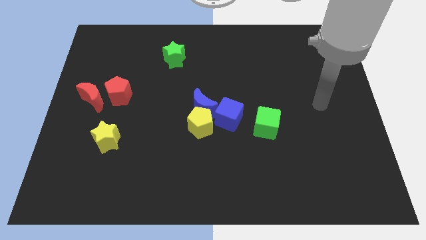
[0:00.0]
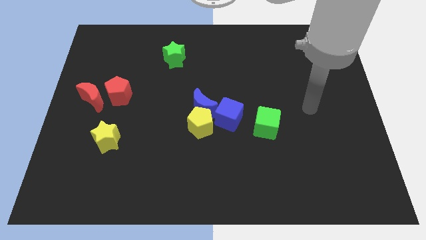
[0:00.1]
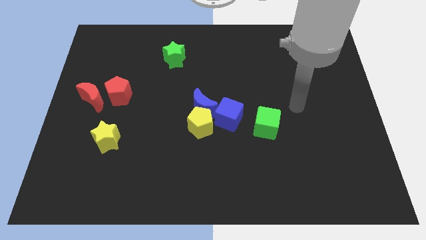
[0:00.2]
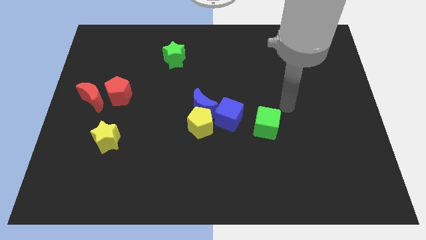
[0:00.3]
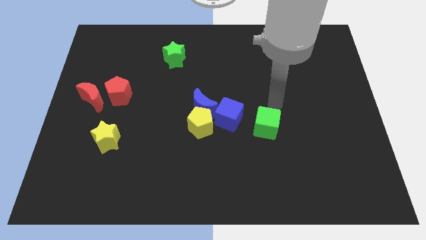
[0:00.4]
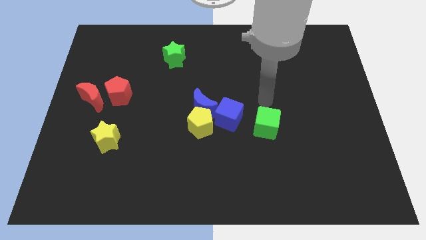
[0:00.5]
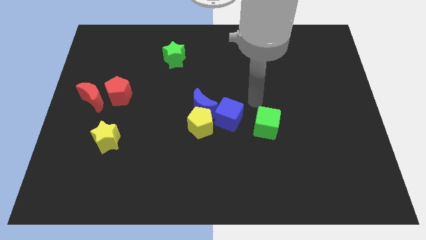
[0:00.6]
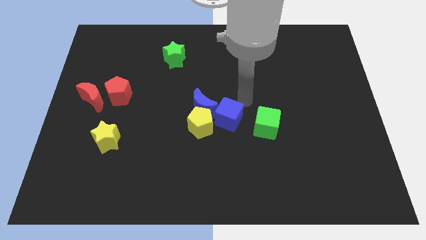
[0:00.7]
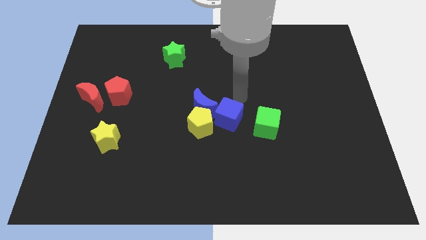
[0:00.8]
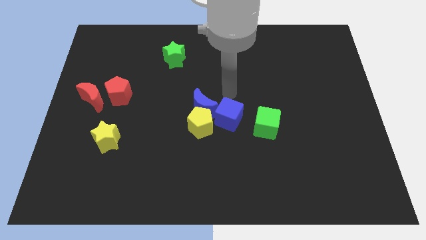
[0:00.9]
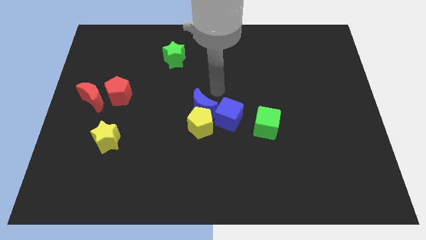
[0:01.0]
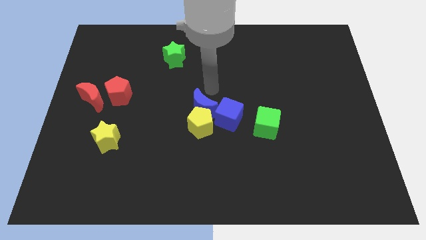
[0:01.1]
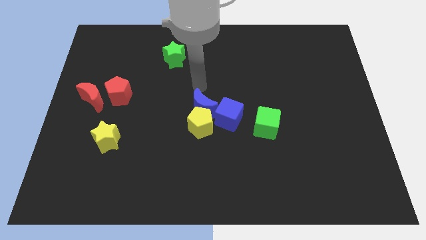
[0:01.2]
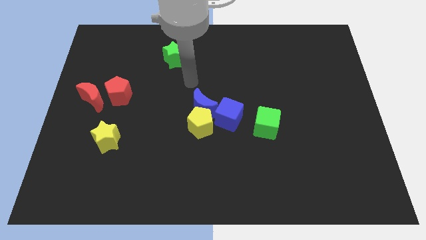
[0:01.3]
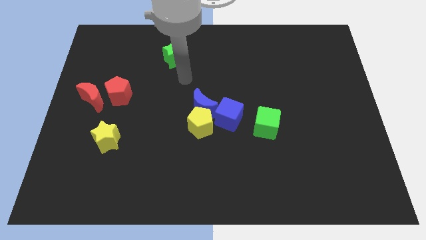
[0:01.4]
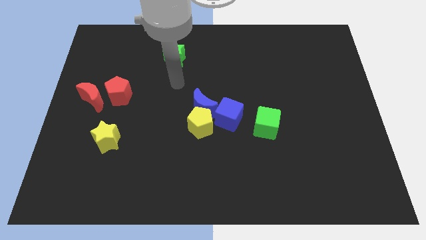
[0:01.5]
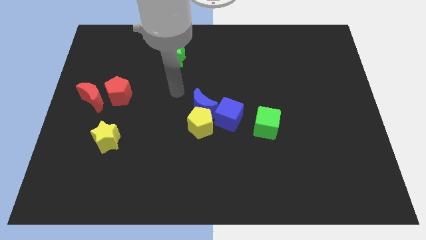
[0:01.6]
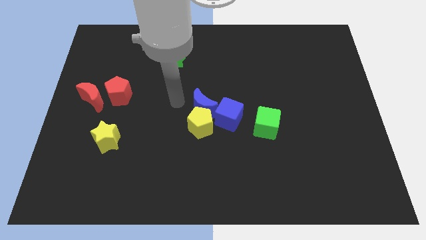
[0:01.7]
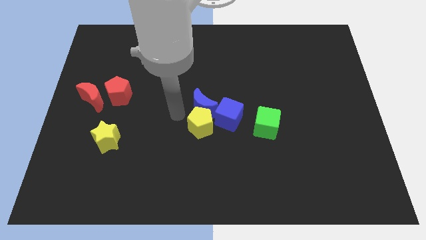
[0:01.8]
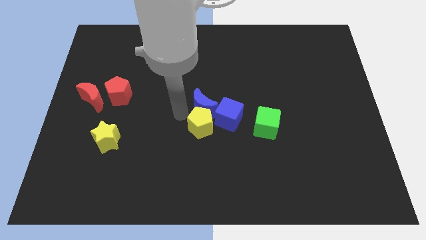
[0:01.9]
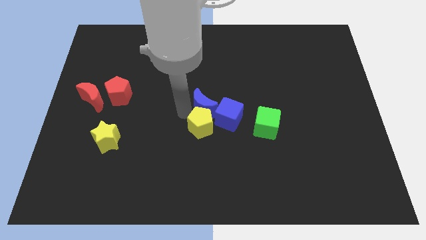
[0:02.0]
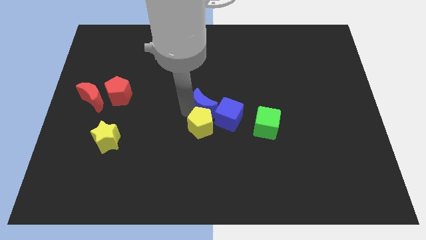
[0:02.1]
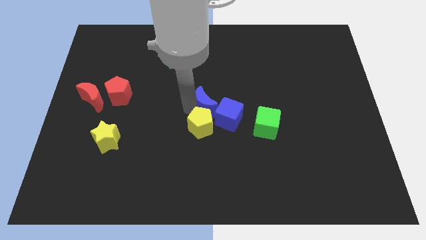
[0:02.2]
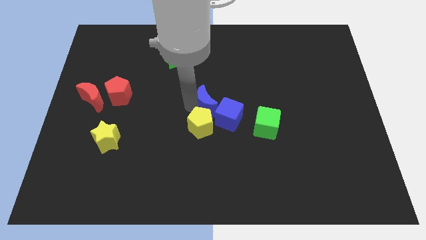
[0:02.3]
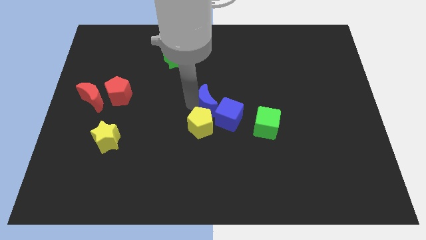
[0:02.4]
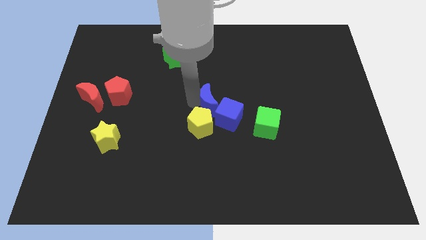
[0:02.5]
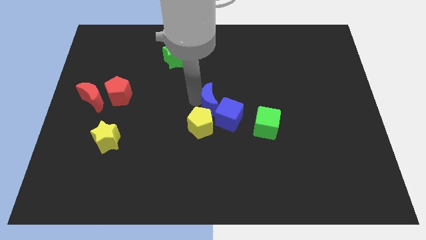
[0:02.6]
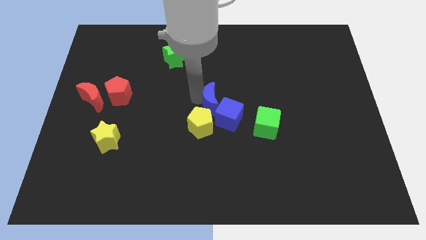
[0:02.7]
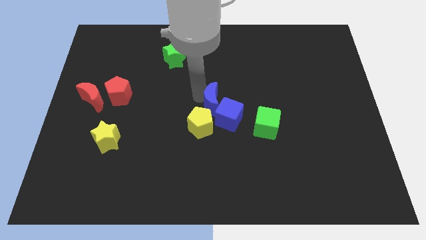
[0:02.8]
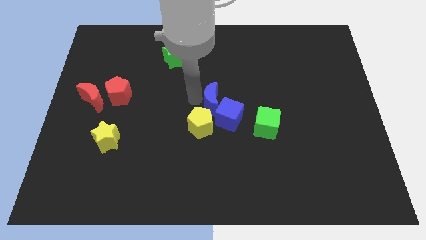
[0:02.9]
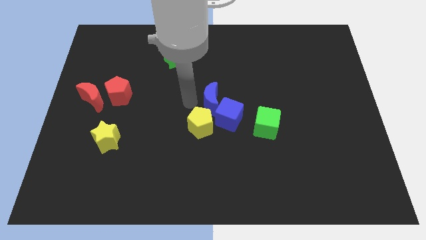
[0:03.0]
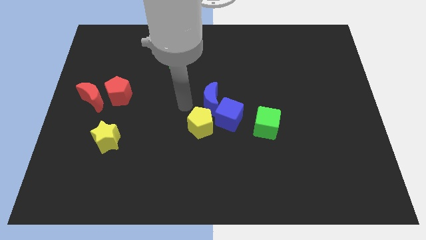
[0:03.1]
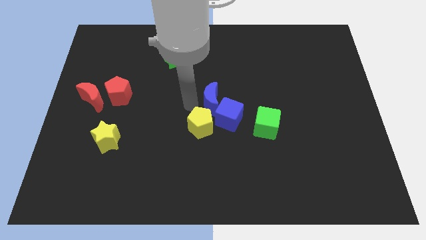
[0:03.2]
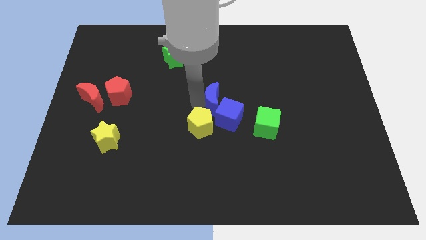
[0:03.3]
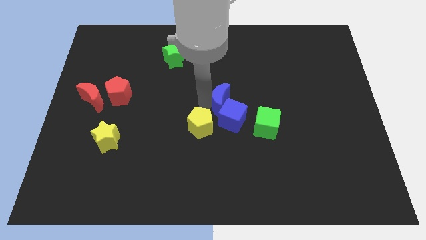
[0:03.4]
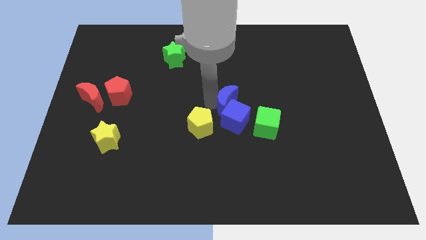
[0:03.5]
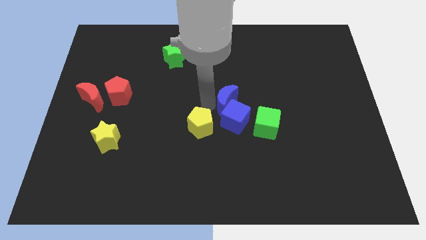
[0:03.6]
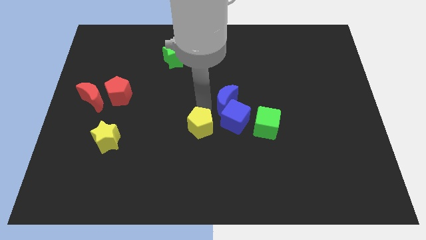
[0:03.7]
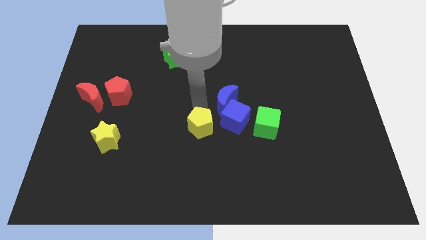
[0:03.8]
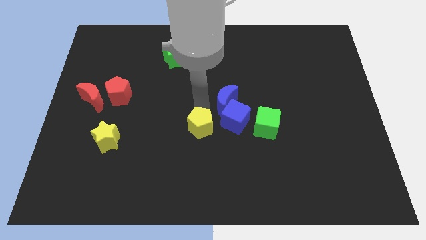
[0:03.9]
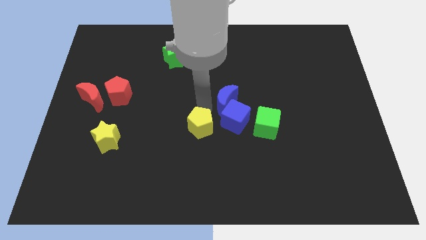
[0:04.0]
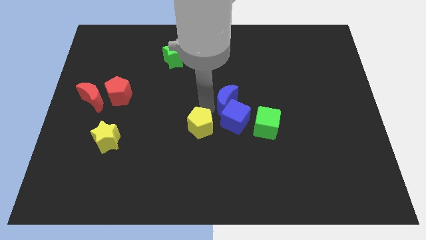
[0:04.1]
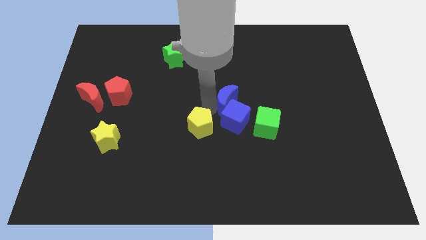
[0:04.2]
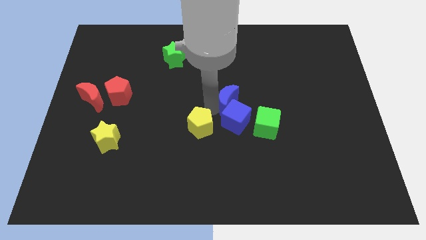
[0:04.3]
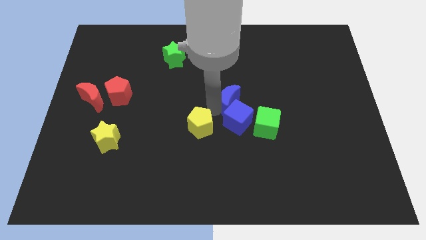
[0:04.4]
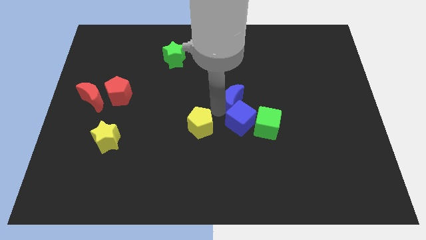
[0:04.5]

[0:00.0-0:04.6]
slide the blue moon right somewhat

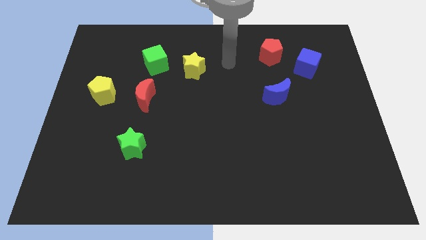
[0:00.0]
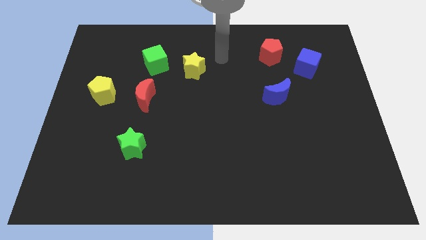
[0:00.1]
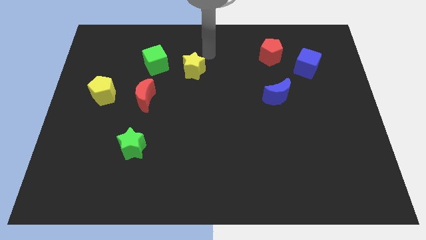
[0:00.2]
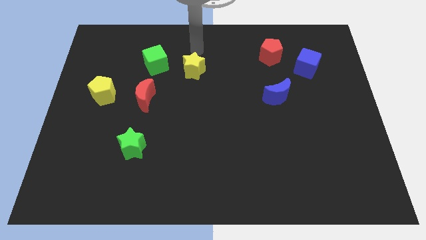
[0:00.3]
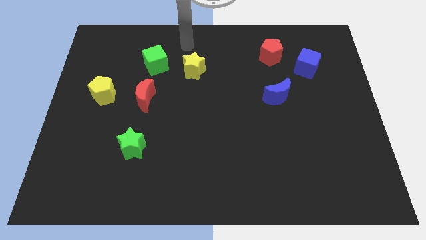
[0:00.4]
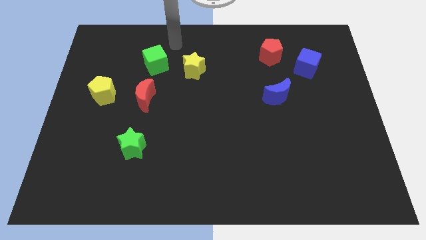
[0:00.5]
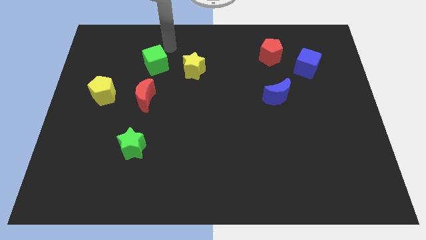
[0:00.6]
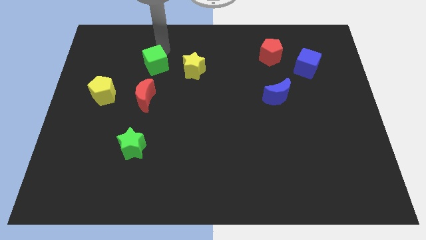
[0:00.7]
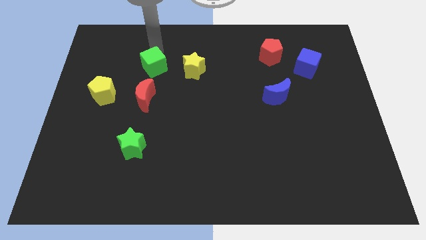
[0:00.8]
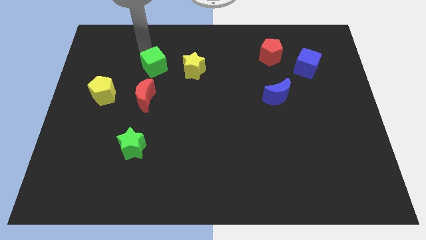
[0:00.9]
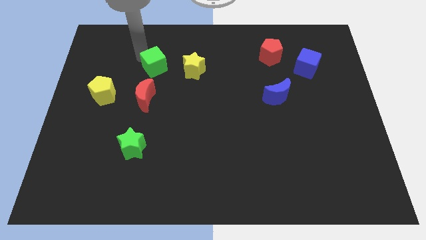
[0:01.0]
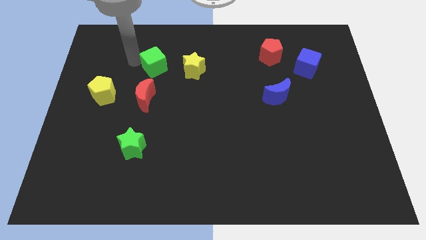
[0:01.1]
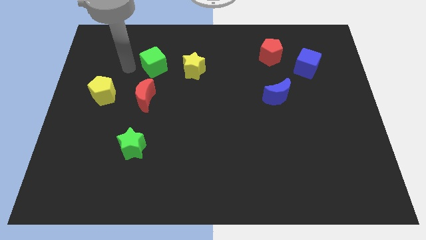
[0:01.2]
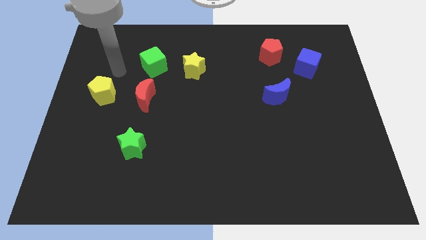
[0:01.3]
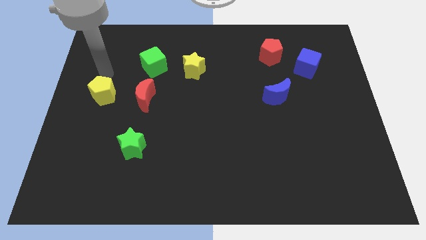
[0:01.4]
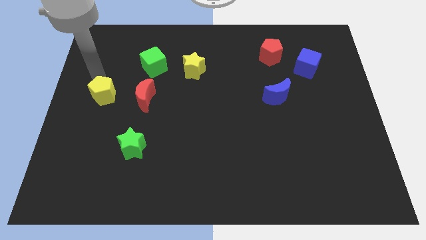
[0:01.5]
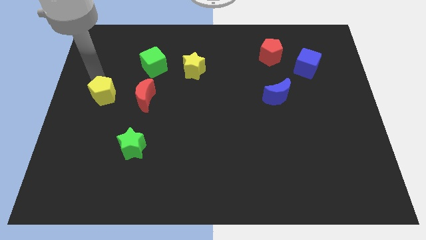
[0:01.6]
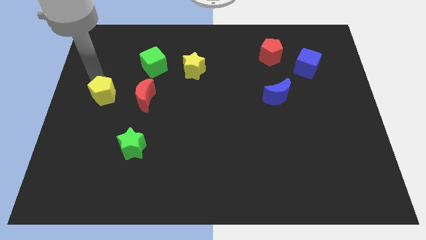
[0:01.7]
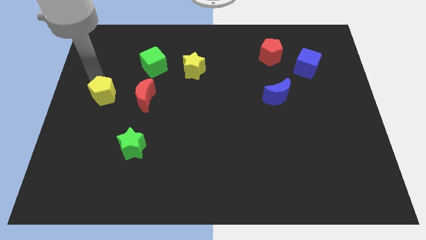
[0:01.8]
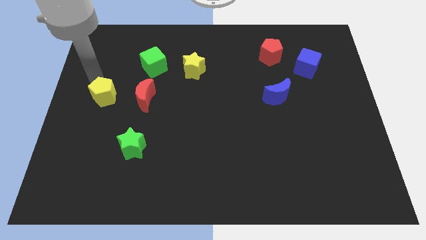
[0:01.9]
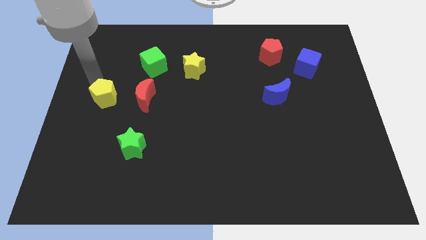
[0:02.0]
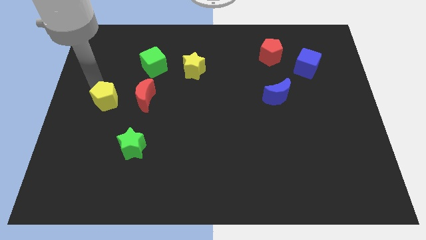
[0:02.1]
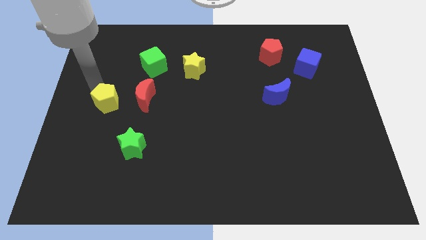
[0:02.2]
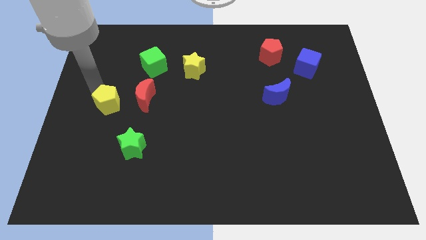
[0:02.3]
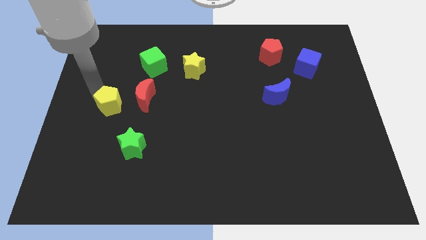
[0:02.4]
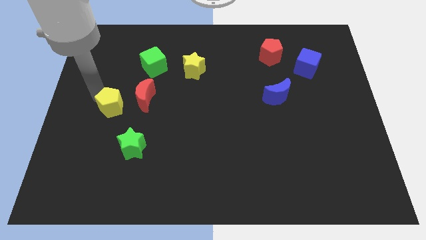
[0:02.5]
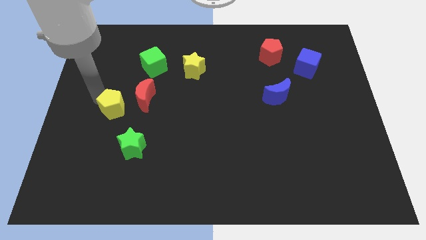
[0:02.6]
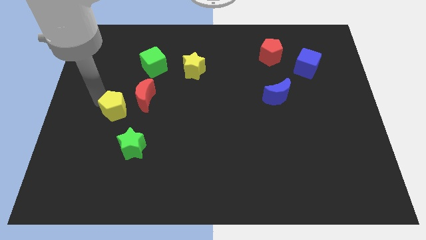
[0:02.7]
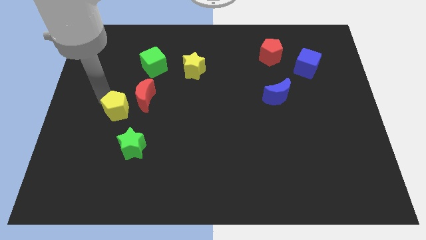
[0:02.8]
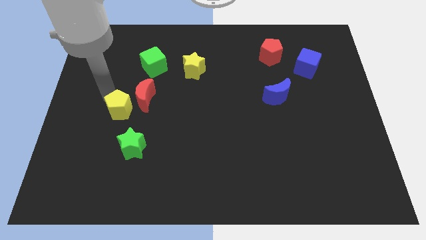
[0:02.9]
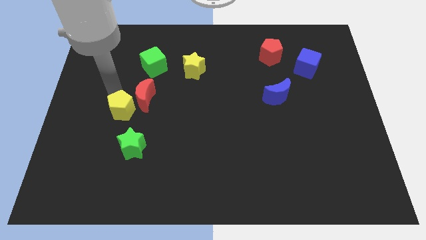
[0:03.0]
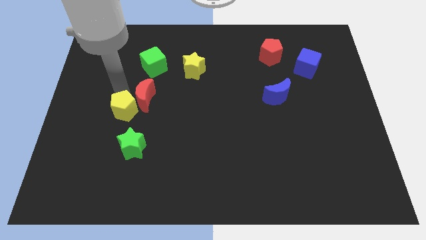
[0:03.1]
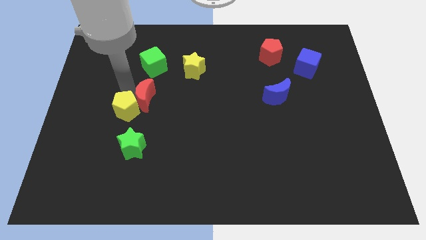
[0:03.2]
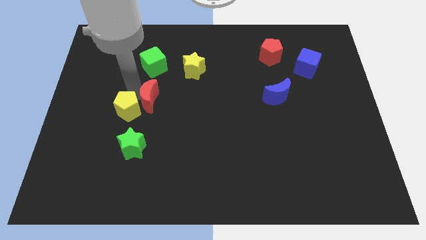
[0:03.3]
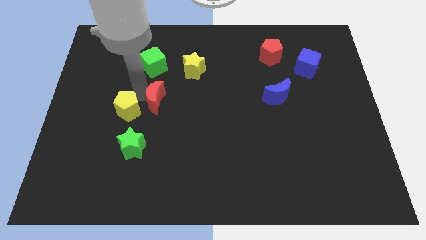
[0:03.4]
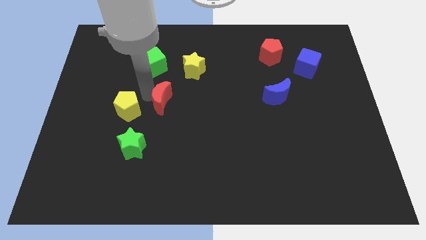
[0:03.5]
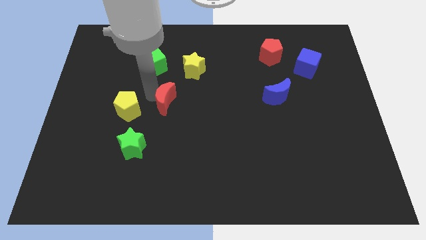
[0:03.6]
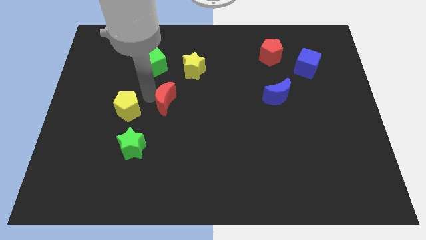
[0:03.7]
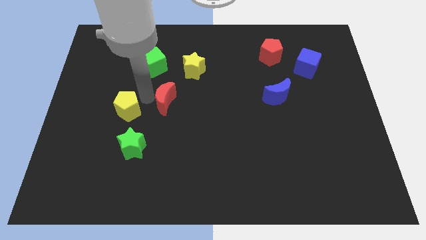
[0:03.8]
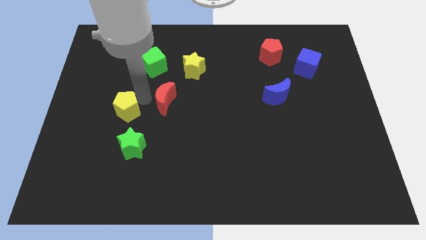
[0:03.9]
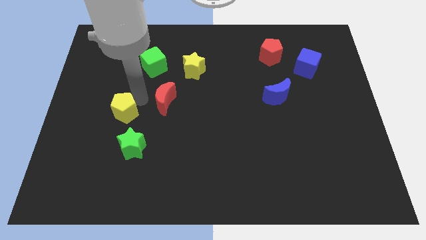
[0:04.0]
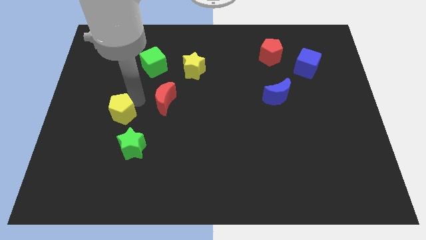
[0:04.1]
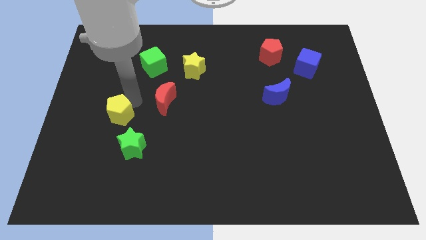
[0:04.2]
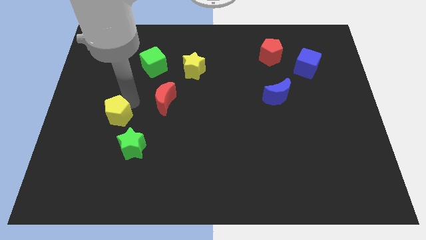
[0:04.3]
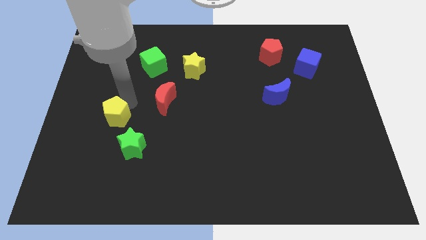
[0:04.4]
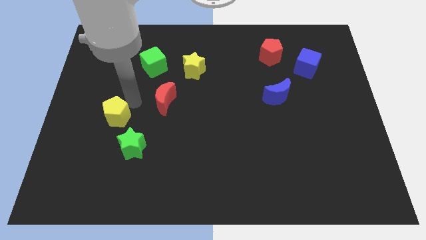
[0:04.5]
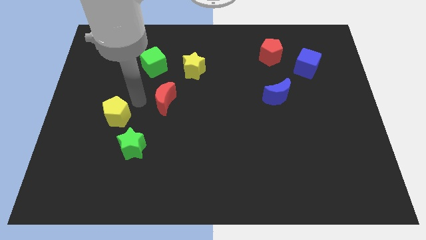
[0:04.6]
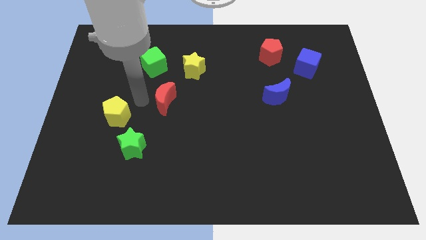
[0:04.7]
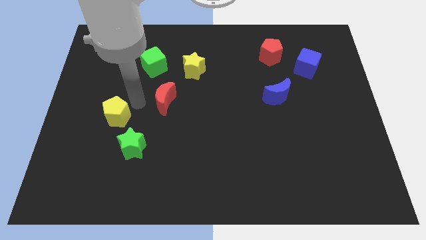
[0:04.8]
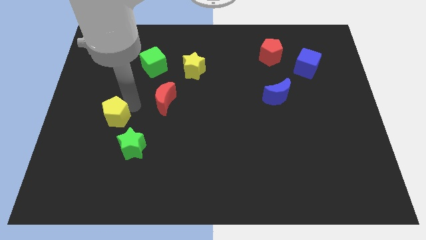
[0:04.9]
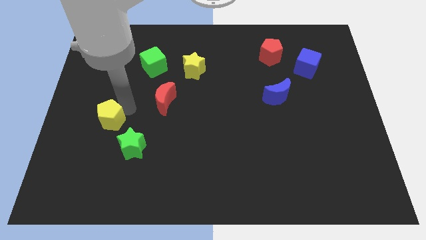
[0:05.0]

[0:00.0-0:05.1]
move the yellow pentagon a little down
